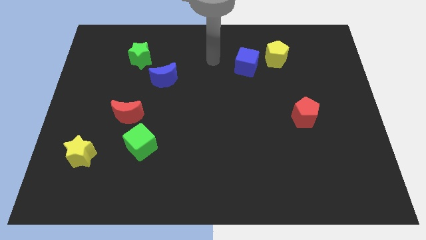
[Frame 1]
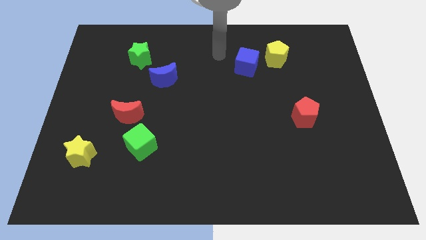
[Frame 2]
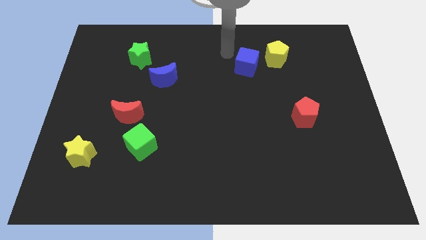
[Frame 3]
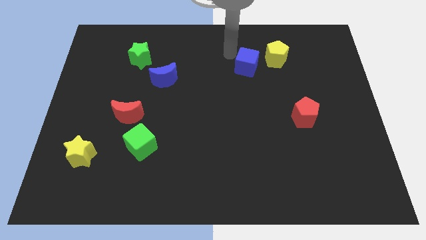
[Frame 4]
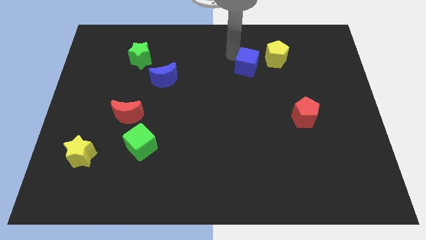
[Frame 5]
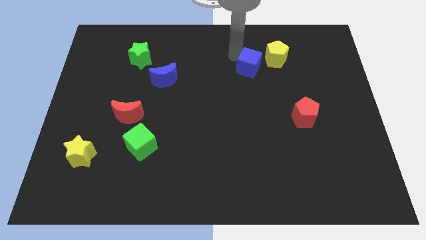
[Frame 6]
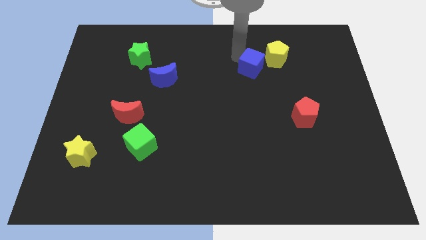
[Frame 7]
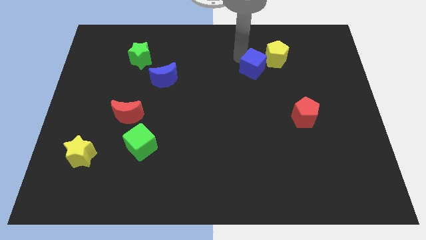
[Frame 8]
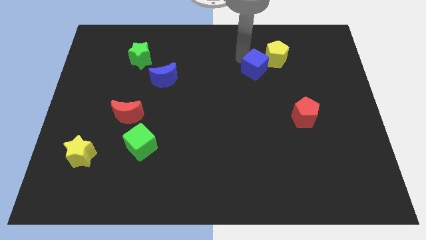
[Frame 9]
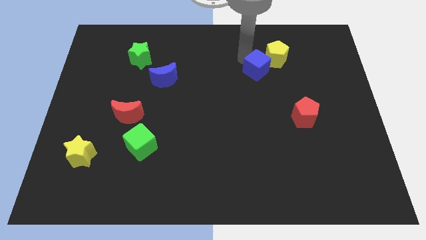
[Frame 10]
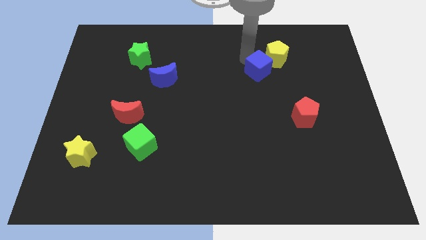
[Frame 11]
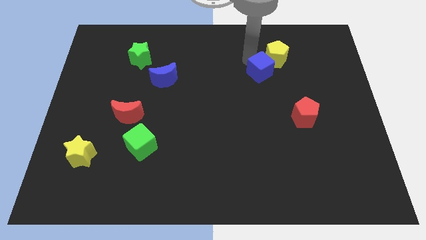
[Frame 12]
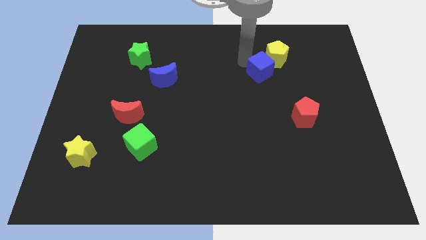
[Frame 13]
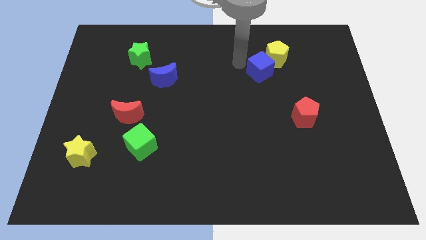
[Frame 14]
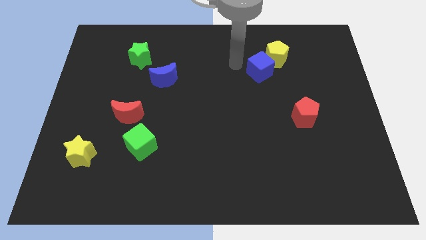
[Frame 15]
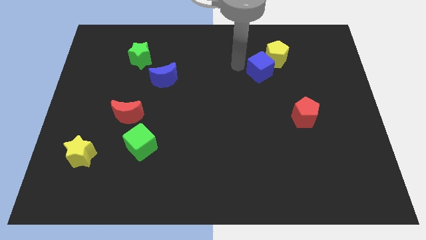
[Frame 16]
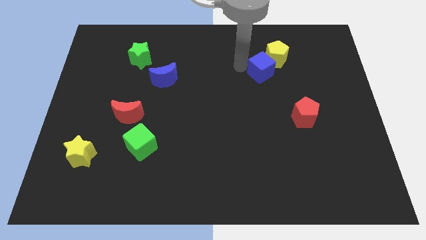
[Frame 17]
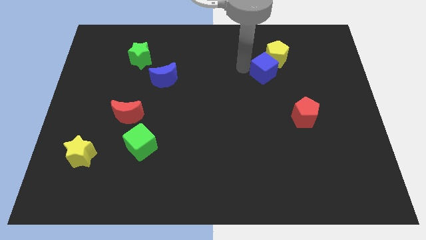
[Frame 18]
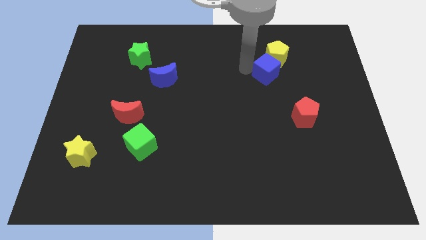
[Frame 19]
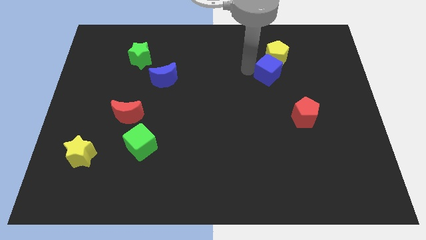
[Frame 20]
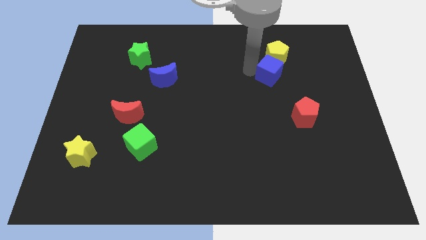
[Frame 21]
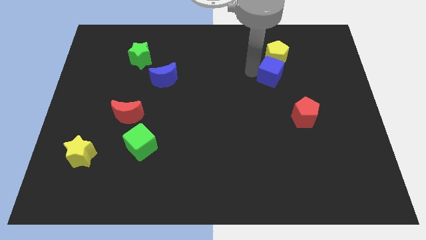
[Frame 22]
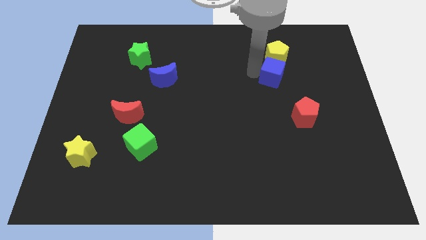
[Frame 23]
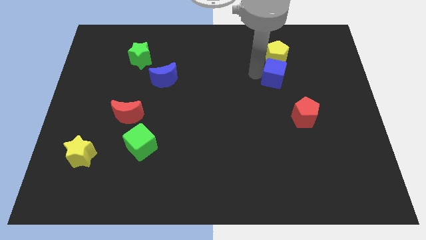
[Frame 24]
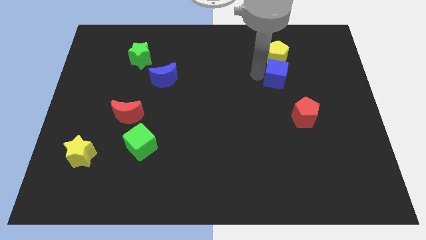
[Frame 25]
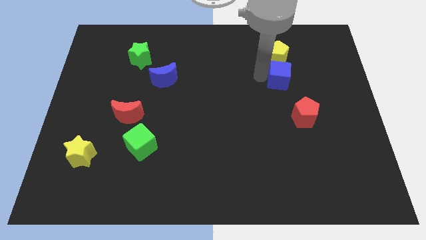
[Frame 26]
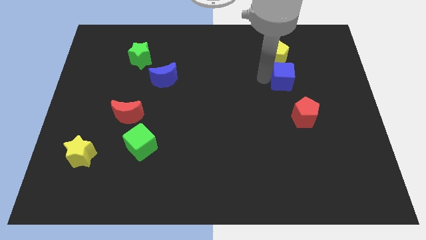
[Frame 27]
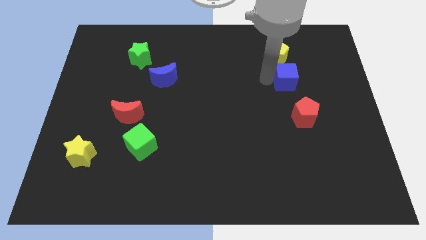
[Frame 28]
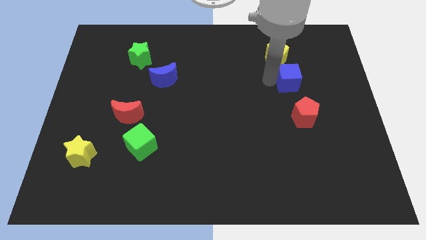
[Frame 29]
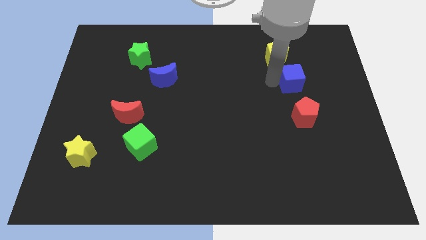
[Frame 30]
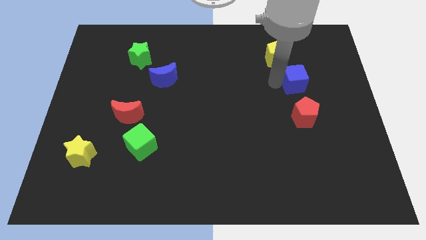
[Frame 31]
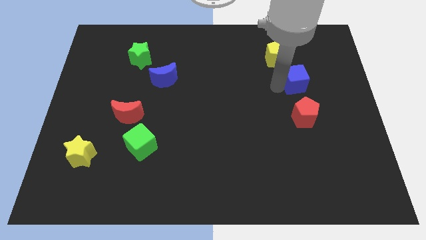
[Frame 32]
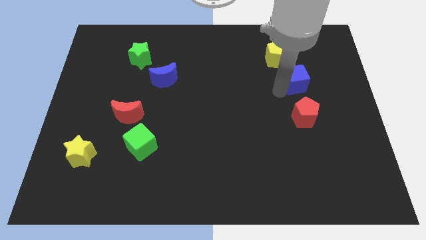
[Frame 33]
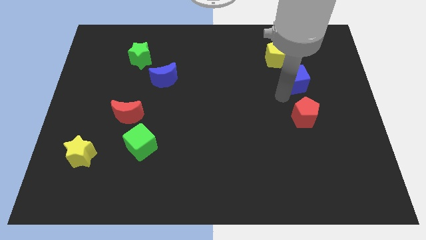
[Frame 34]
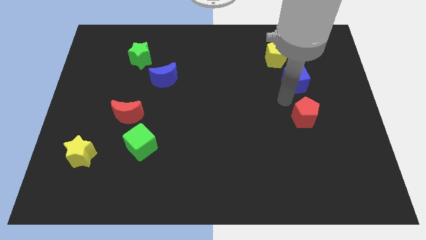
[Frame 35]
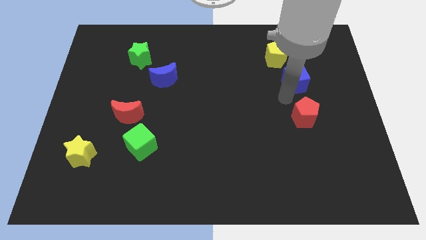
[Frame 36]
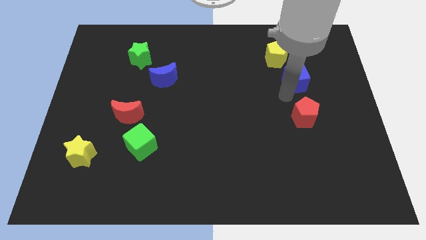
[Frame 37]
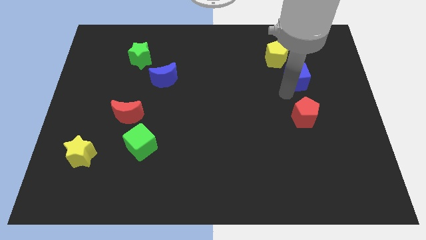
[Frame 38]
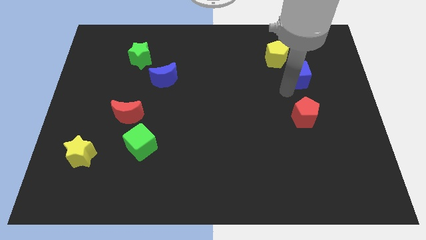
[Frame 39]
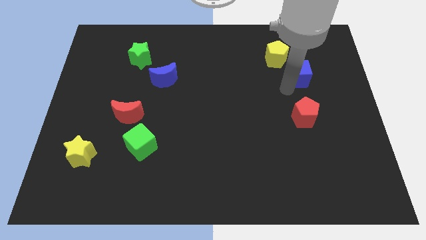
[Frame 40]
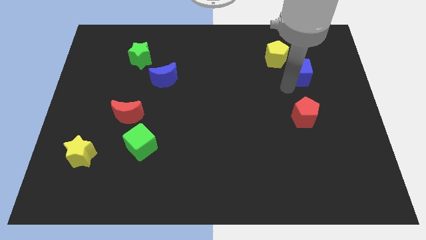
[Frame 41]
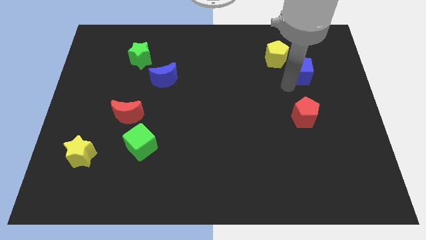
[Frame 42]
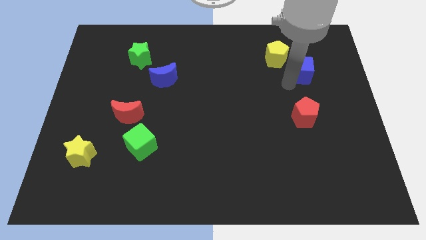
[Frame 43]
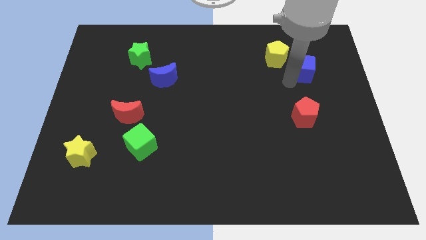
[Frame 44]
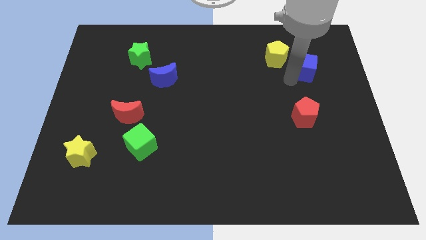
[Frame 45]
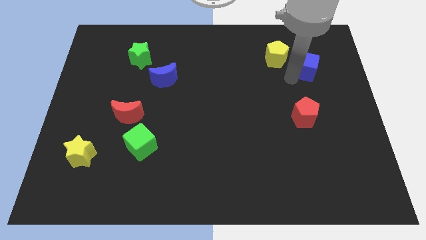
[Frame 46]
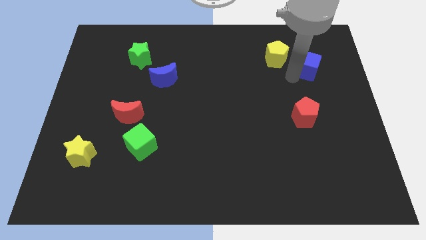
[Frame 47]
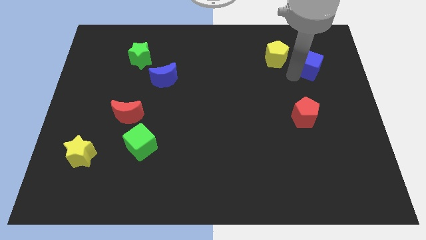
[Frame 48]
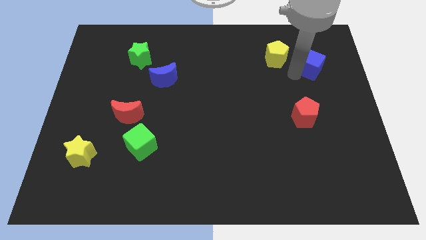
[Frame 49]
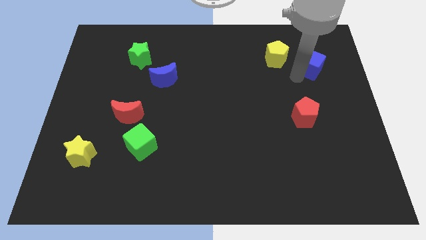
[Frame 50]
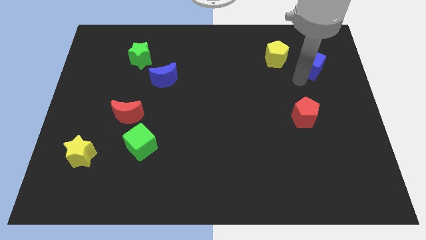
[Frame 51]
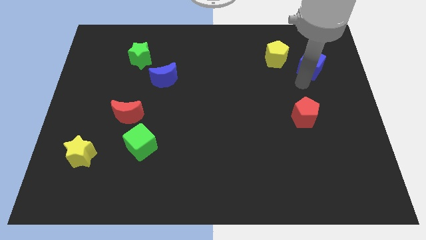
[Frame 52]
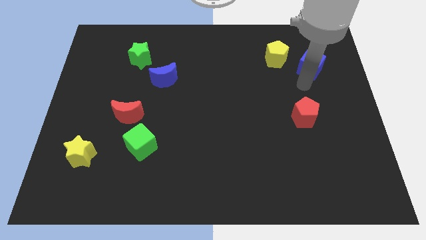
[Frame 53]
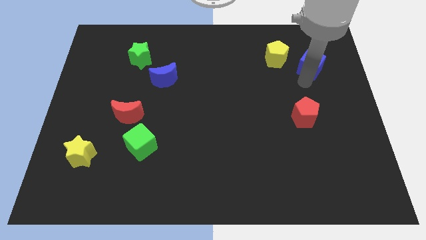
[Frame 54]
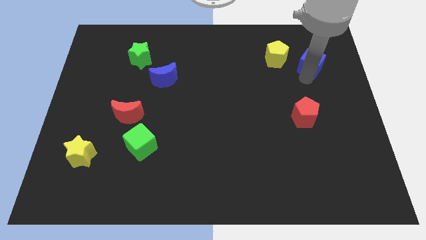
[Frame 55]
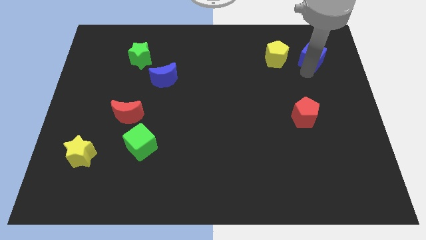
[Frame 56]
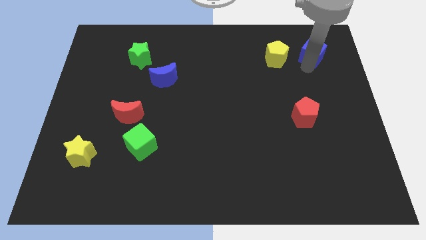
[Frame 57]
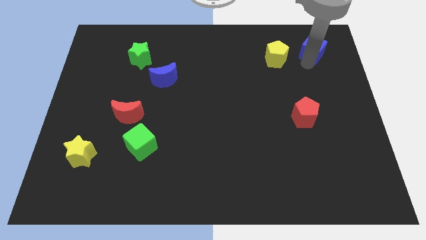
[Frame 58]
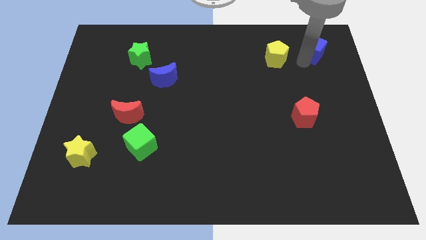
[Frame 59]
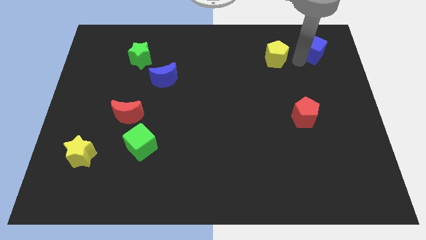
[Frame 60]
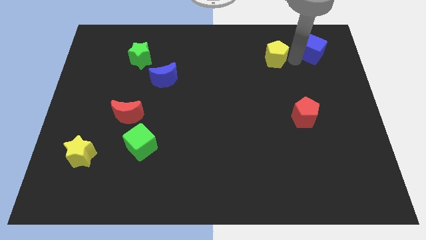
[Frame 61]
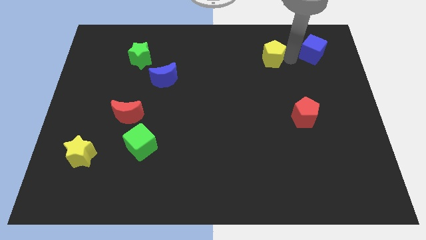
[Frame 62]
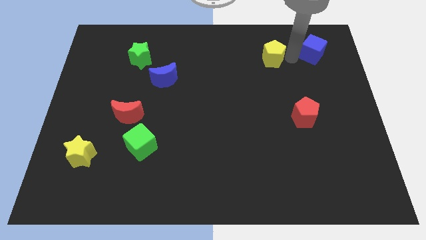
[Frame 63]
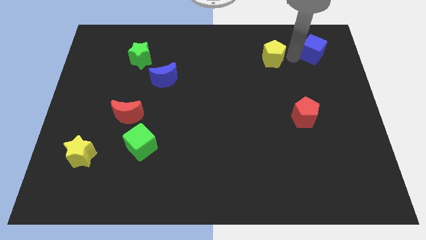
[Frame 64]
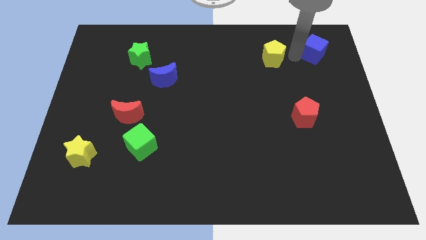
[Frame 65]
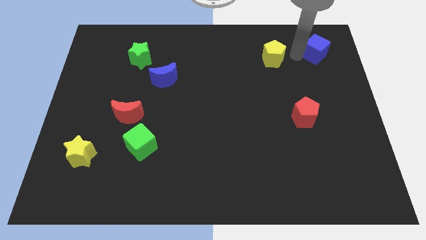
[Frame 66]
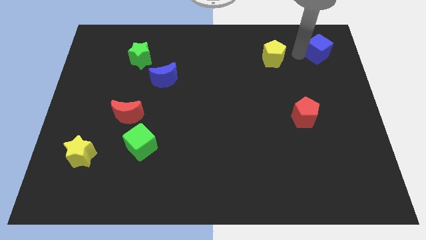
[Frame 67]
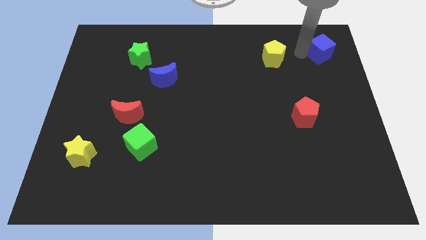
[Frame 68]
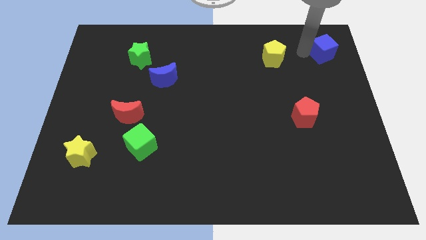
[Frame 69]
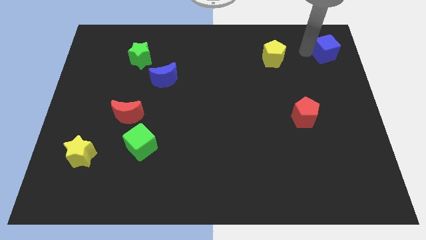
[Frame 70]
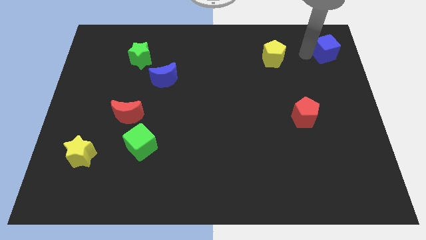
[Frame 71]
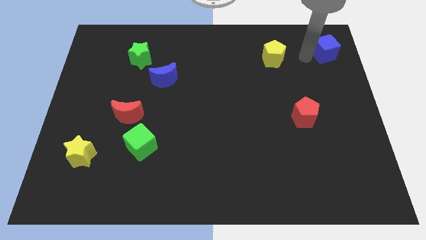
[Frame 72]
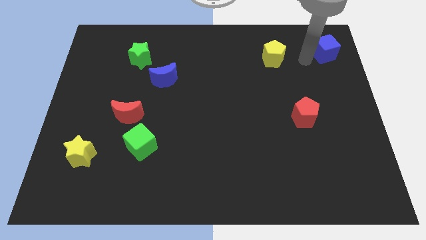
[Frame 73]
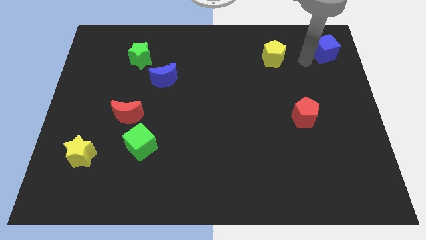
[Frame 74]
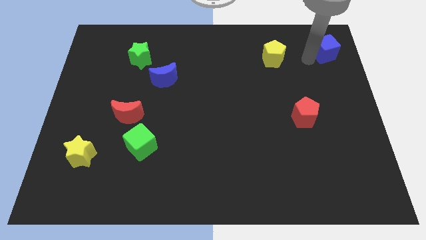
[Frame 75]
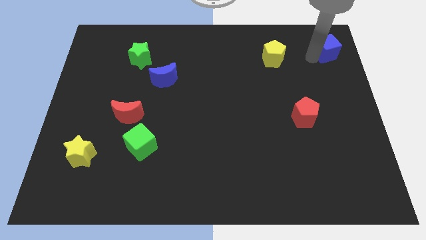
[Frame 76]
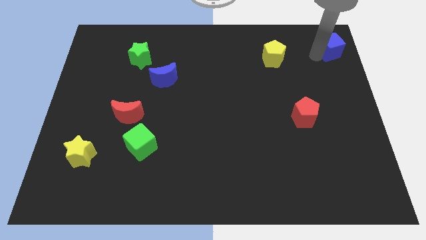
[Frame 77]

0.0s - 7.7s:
push the blue cube to the top right corner
